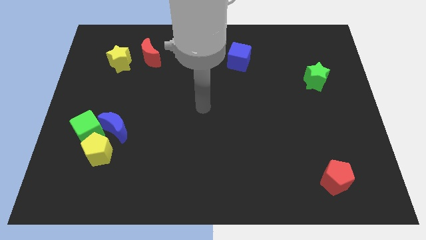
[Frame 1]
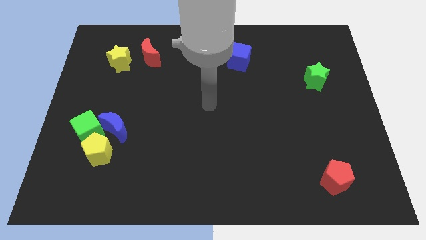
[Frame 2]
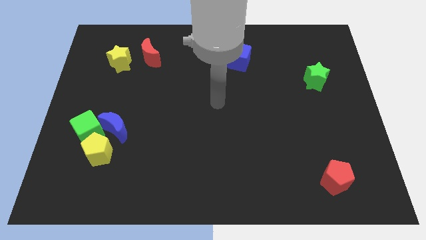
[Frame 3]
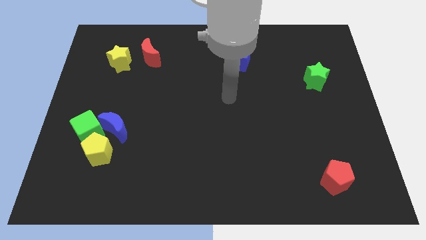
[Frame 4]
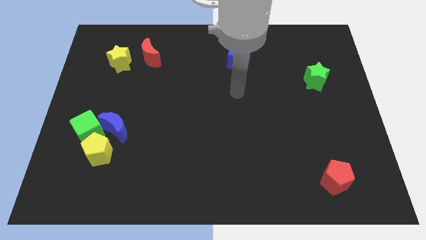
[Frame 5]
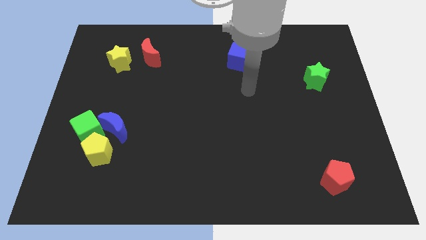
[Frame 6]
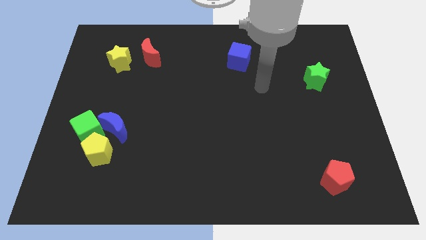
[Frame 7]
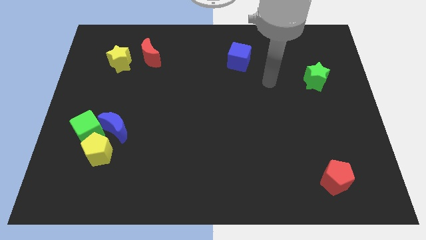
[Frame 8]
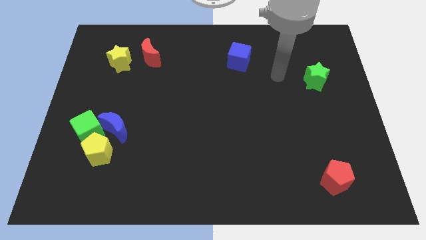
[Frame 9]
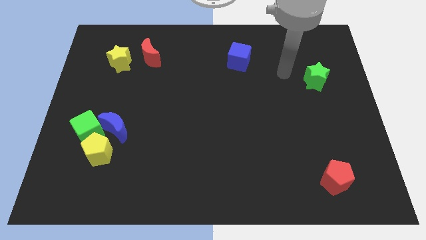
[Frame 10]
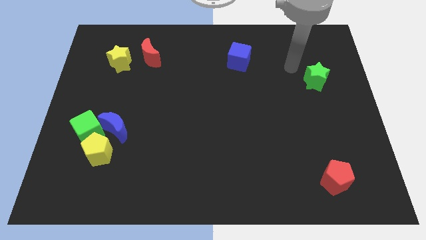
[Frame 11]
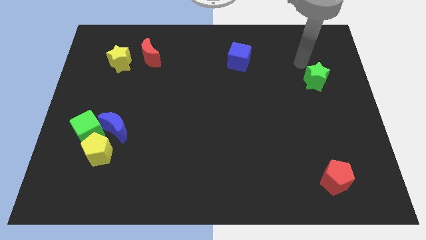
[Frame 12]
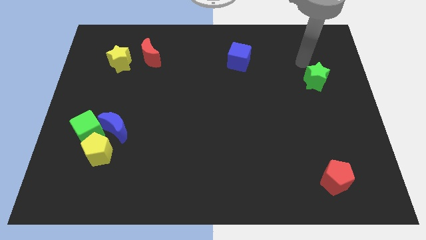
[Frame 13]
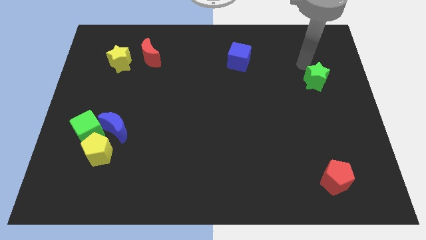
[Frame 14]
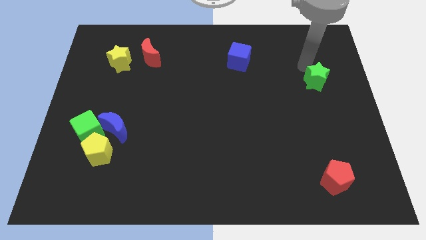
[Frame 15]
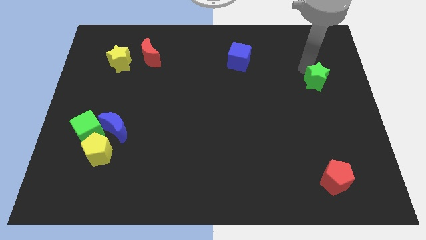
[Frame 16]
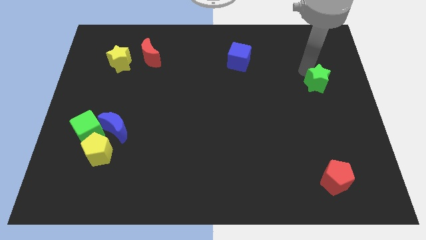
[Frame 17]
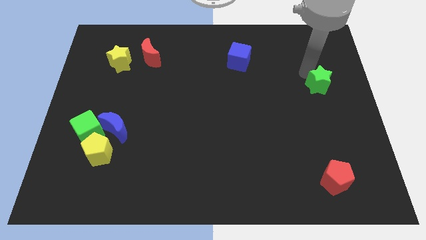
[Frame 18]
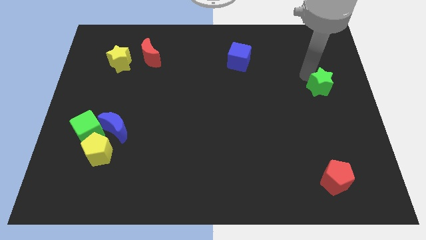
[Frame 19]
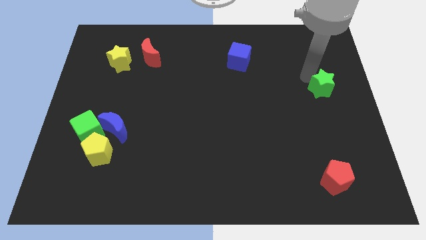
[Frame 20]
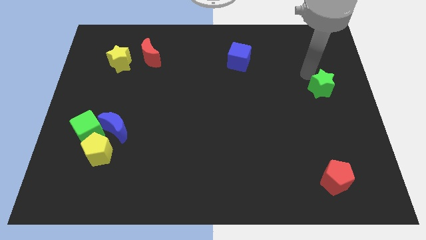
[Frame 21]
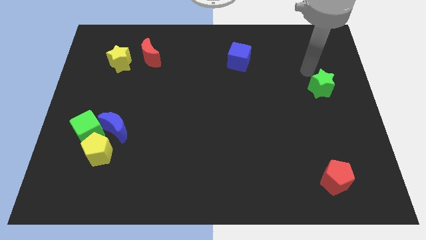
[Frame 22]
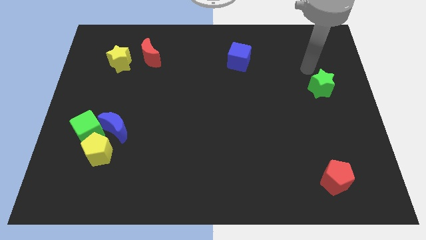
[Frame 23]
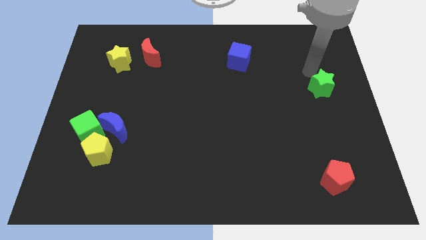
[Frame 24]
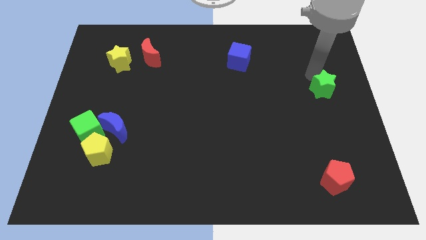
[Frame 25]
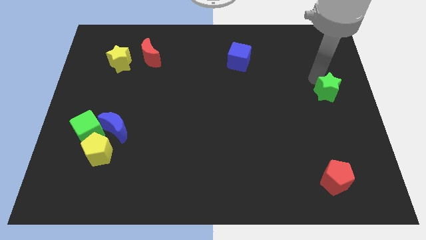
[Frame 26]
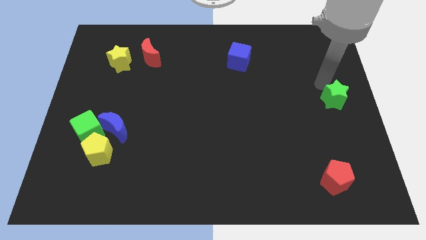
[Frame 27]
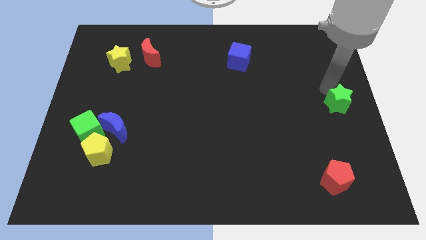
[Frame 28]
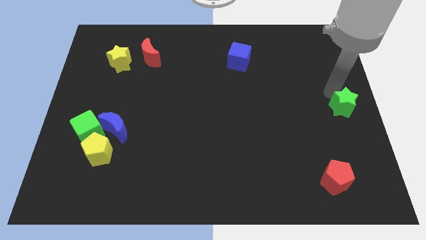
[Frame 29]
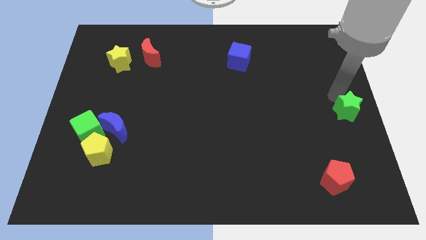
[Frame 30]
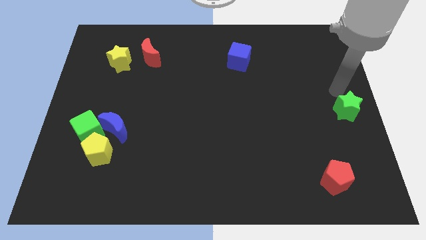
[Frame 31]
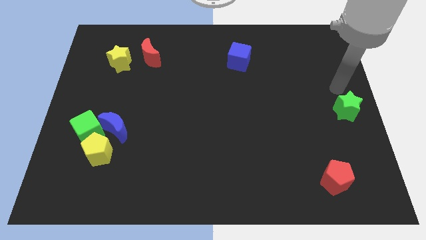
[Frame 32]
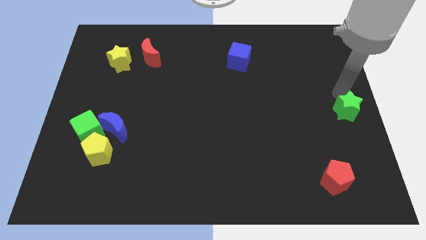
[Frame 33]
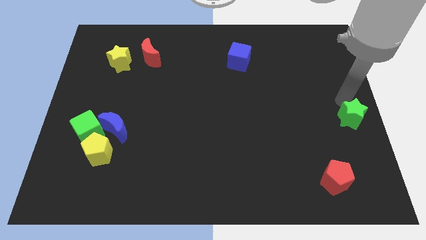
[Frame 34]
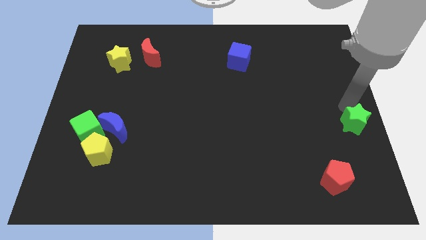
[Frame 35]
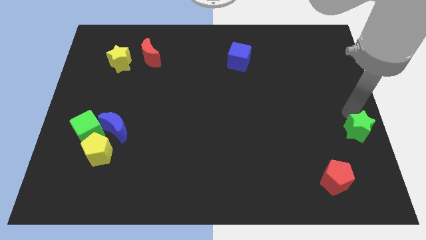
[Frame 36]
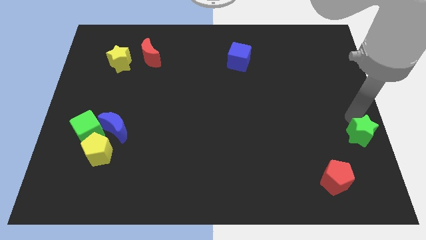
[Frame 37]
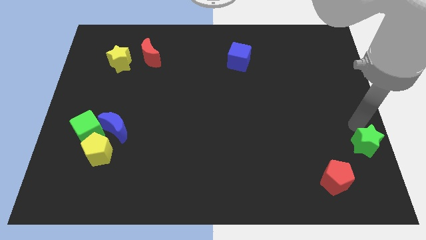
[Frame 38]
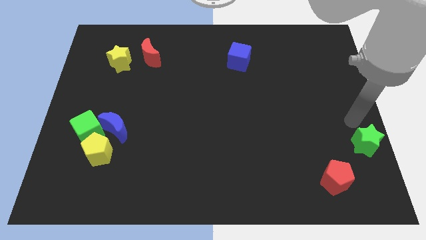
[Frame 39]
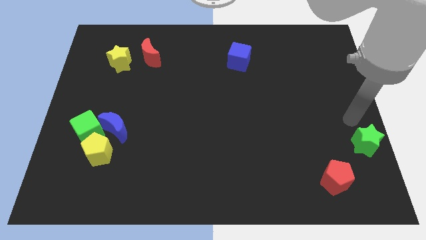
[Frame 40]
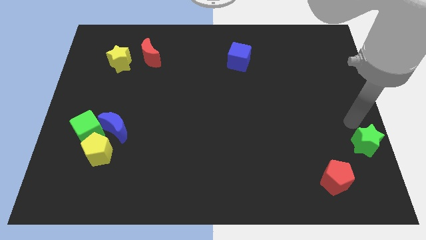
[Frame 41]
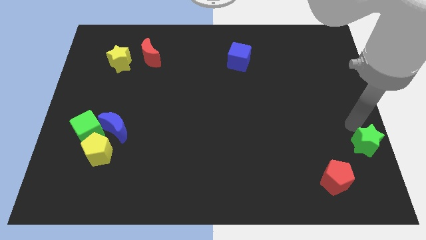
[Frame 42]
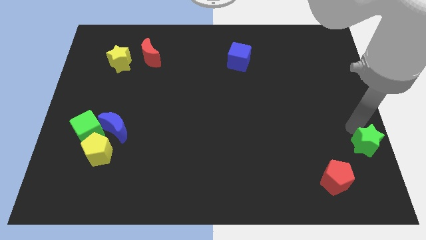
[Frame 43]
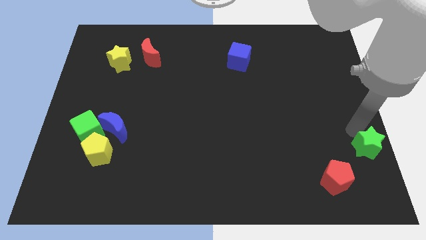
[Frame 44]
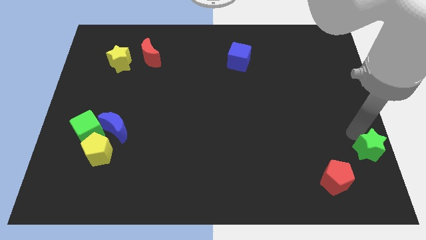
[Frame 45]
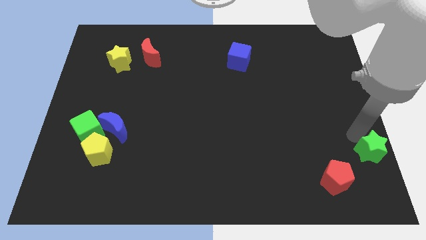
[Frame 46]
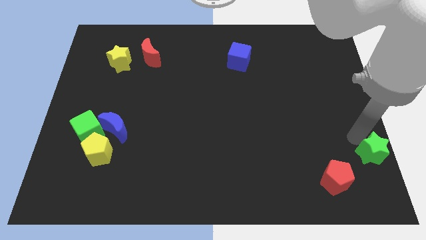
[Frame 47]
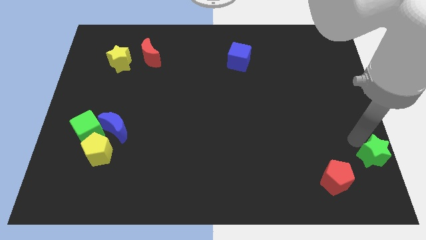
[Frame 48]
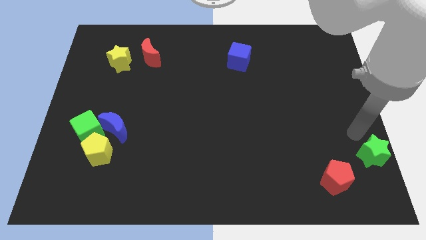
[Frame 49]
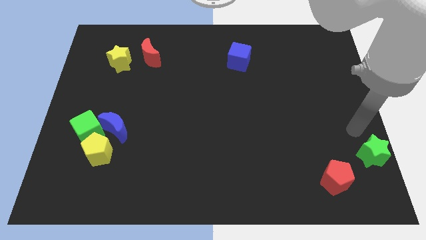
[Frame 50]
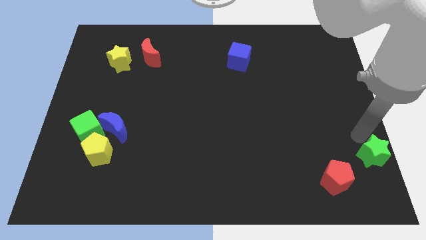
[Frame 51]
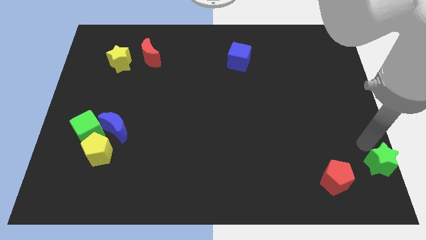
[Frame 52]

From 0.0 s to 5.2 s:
put the green star to the bottom right of the board

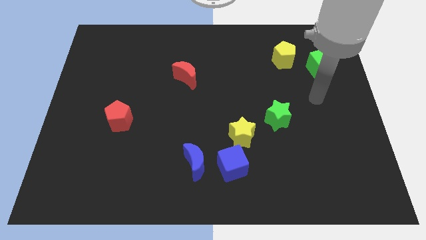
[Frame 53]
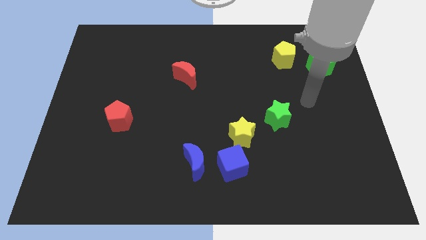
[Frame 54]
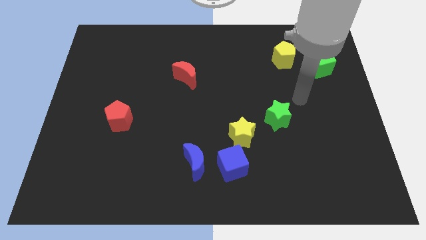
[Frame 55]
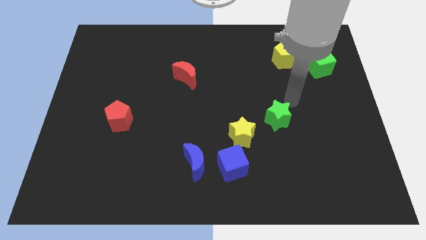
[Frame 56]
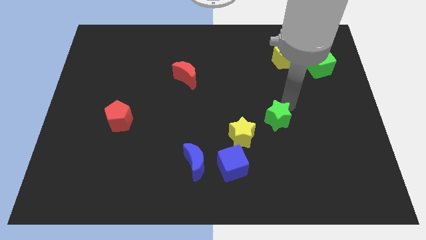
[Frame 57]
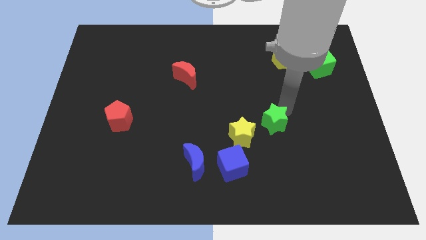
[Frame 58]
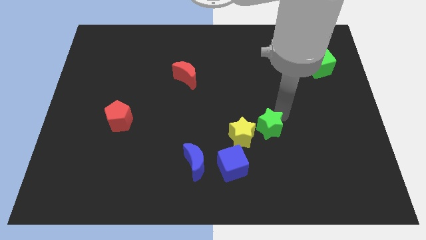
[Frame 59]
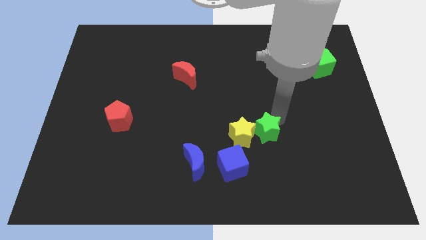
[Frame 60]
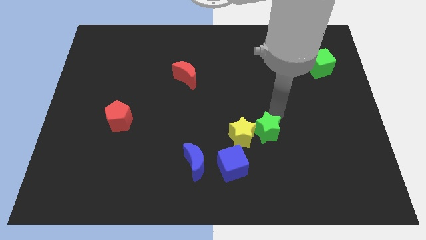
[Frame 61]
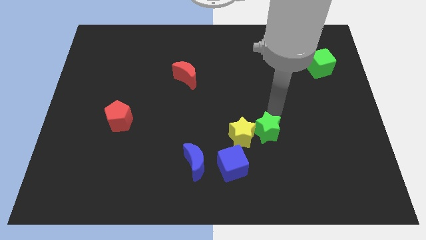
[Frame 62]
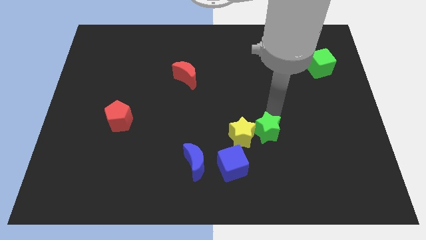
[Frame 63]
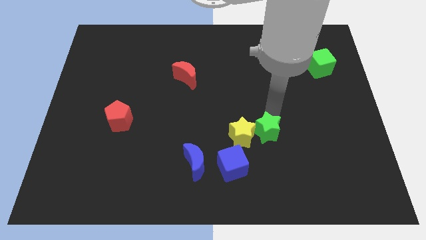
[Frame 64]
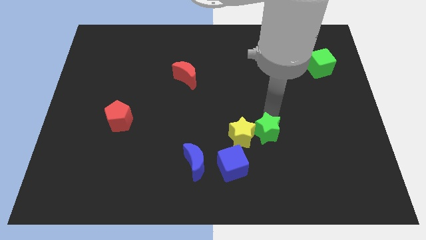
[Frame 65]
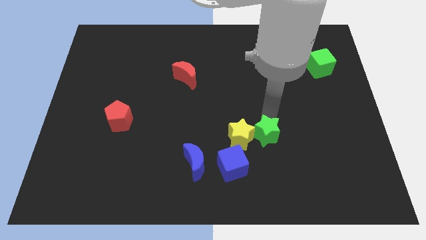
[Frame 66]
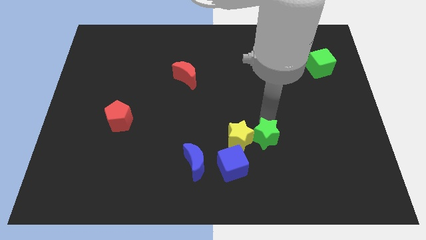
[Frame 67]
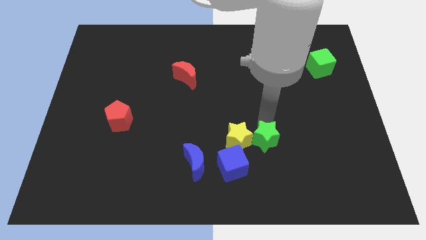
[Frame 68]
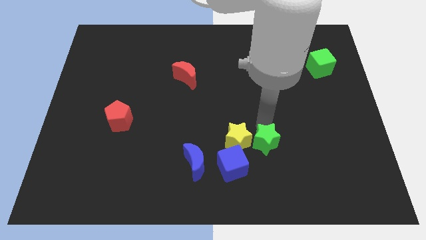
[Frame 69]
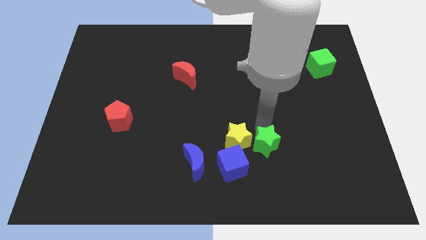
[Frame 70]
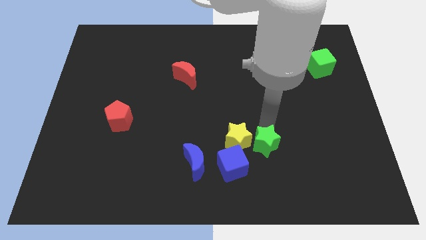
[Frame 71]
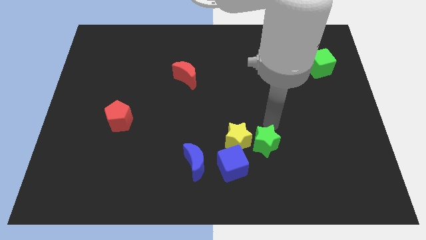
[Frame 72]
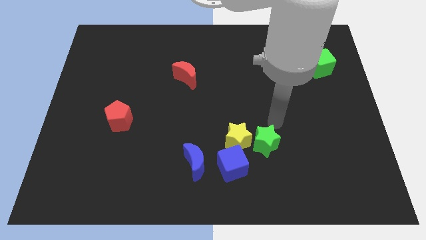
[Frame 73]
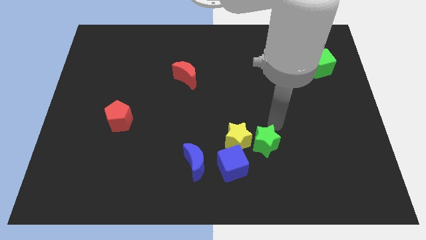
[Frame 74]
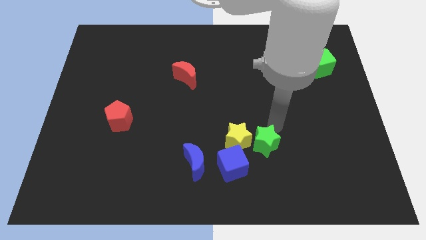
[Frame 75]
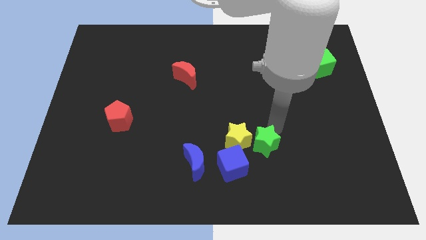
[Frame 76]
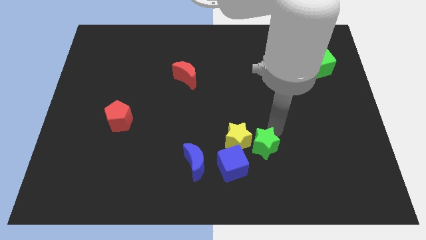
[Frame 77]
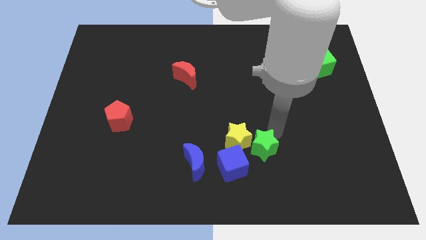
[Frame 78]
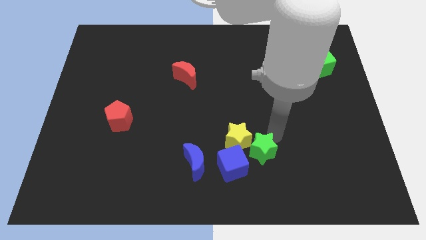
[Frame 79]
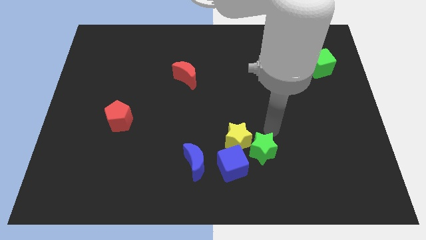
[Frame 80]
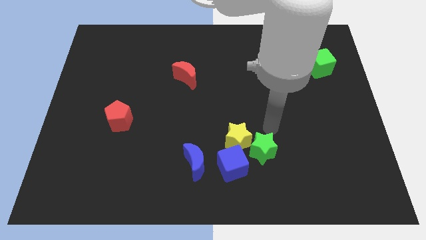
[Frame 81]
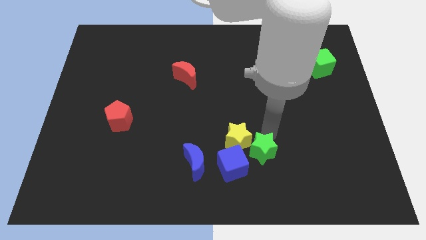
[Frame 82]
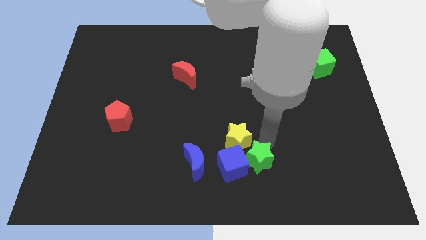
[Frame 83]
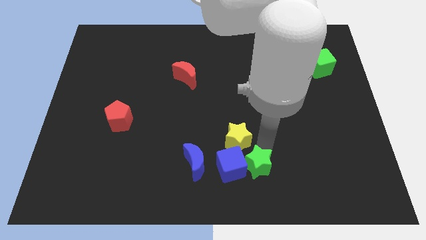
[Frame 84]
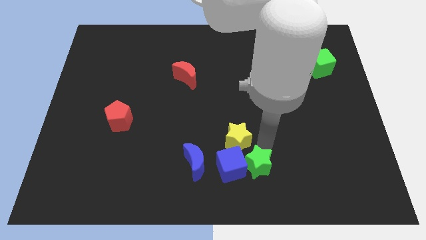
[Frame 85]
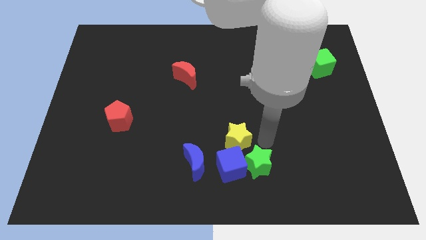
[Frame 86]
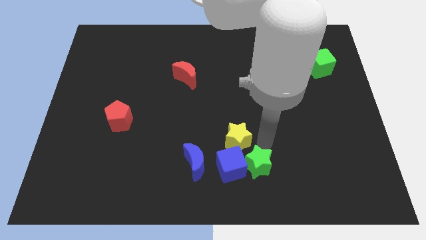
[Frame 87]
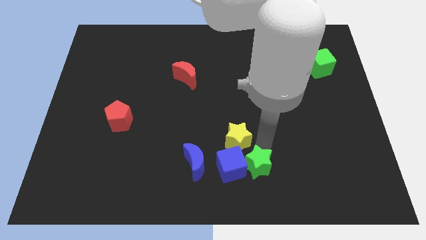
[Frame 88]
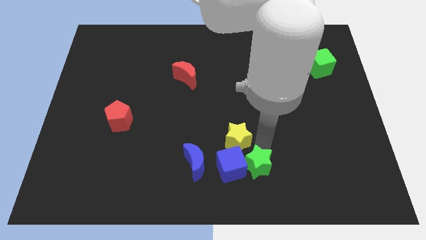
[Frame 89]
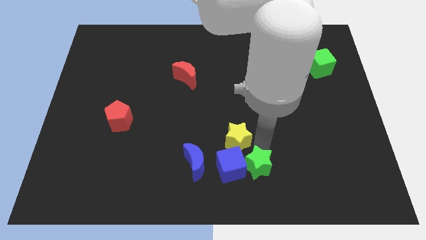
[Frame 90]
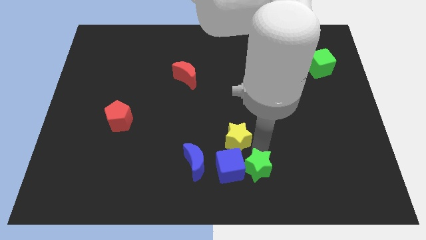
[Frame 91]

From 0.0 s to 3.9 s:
slide the green star to the bottom
